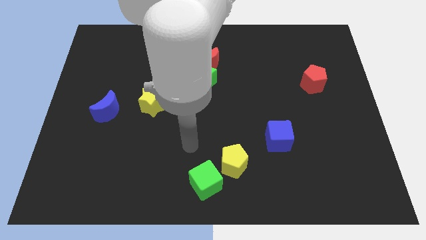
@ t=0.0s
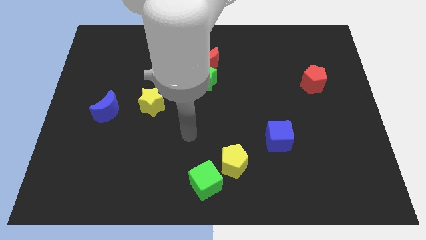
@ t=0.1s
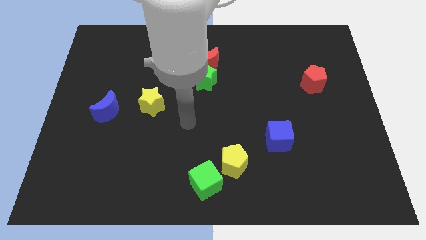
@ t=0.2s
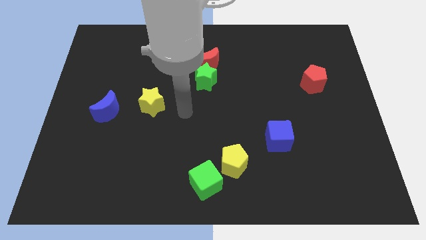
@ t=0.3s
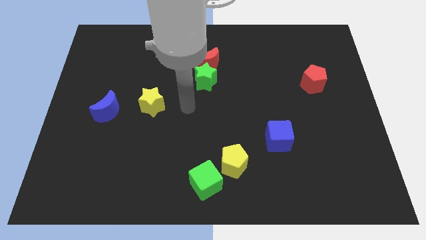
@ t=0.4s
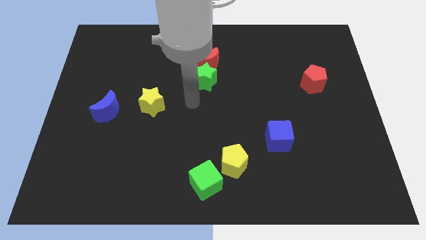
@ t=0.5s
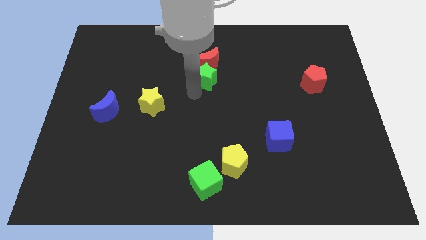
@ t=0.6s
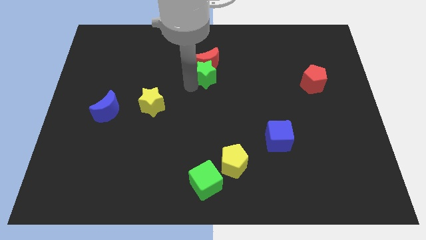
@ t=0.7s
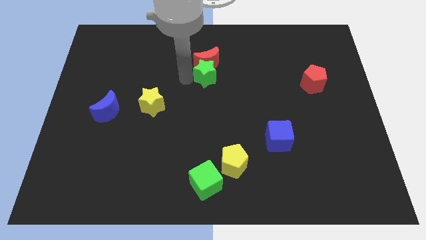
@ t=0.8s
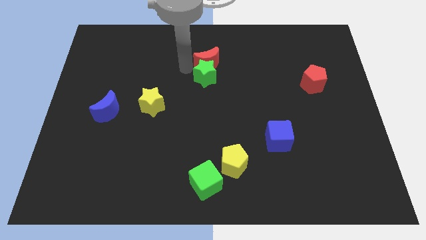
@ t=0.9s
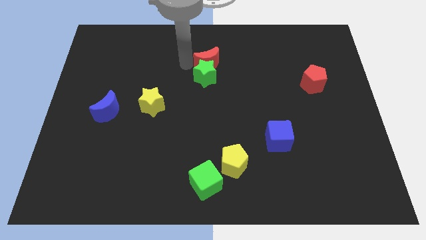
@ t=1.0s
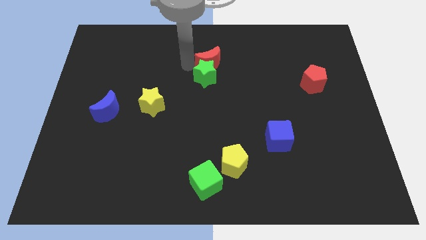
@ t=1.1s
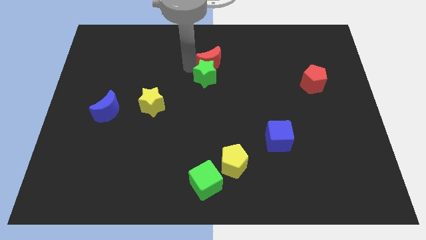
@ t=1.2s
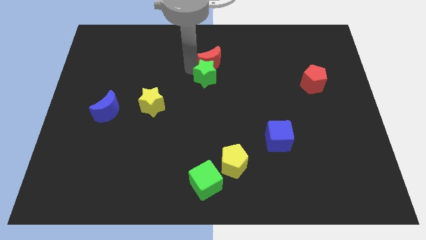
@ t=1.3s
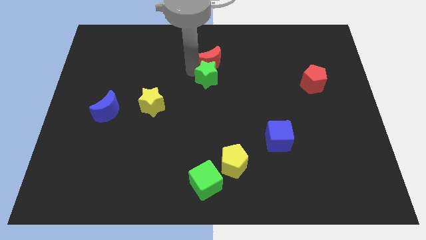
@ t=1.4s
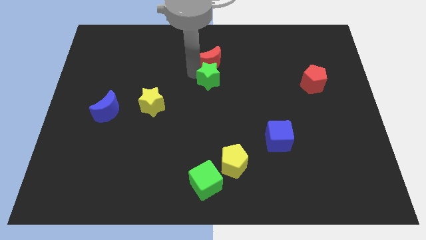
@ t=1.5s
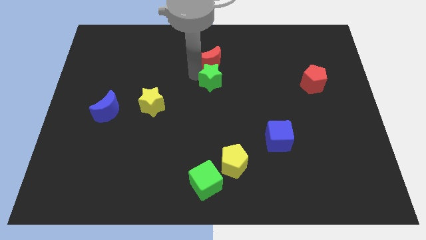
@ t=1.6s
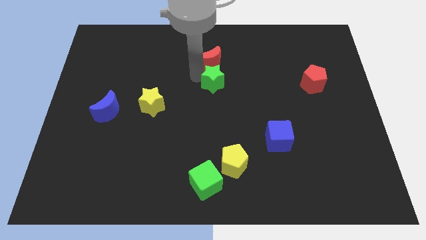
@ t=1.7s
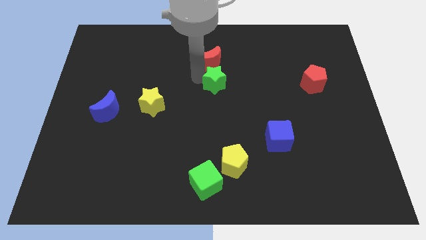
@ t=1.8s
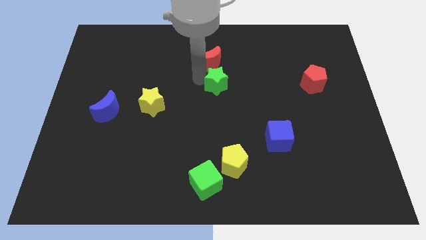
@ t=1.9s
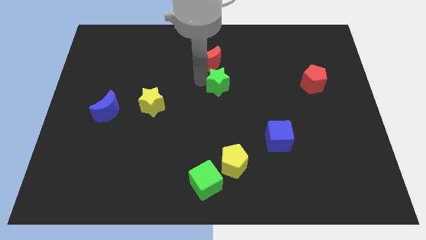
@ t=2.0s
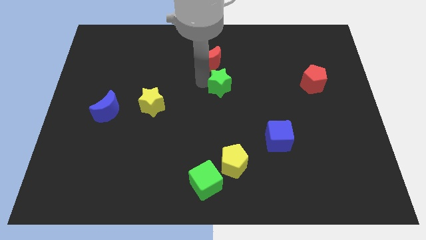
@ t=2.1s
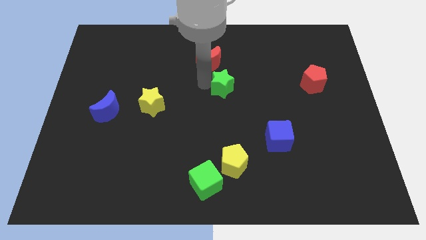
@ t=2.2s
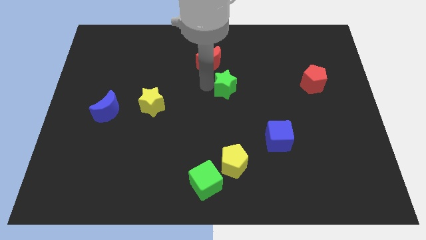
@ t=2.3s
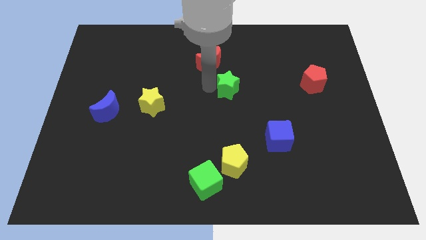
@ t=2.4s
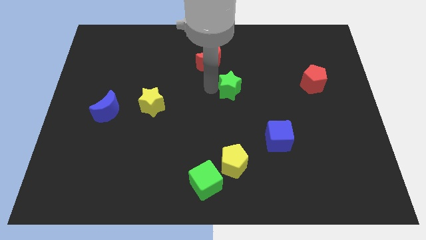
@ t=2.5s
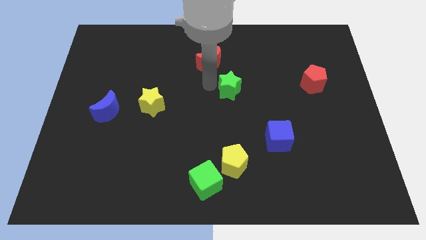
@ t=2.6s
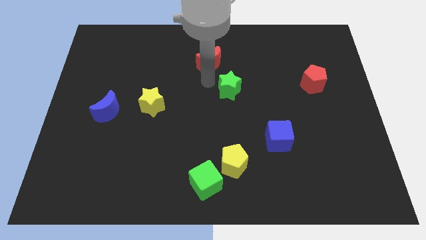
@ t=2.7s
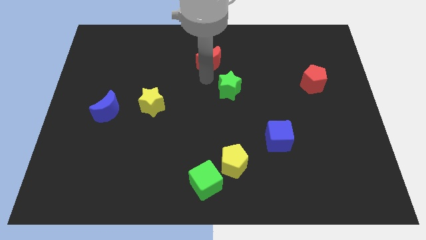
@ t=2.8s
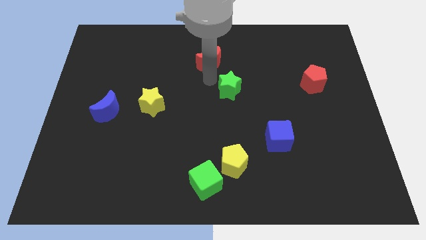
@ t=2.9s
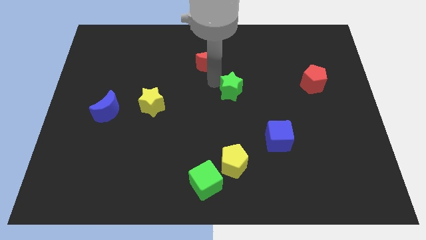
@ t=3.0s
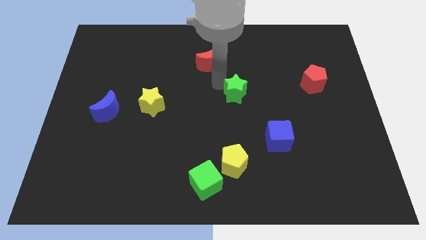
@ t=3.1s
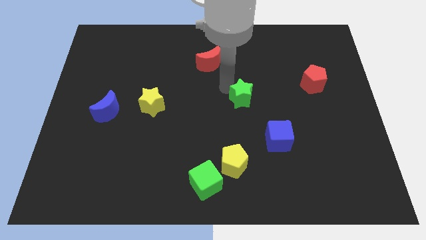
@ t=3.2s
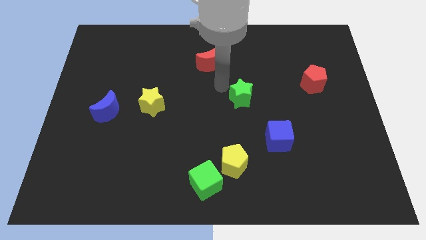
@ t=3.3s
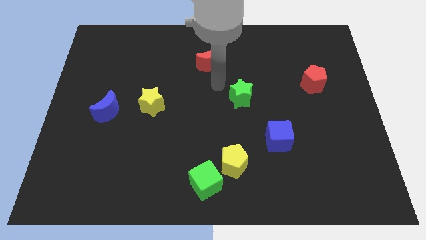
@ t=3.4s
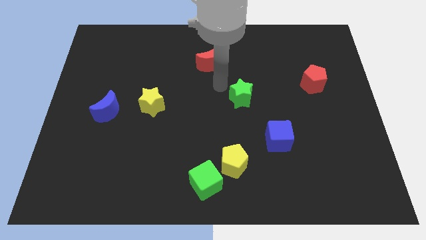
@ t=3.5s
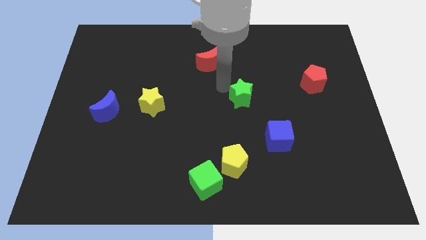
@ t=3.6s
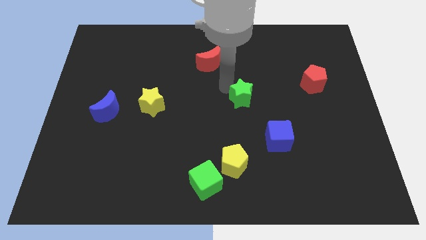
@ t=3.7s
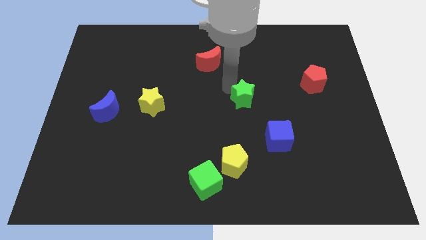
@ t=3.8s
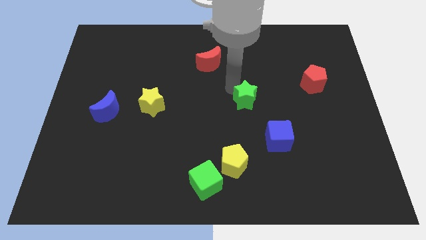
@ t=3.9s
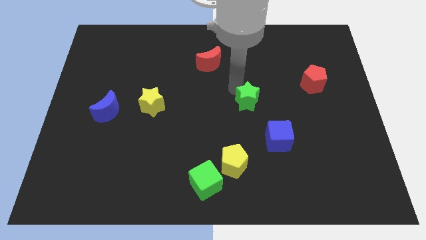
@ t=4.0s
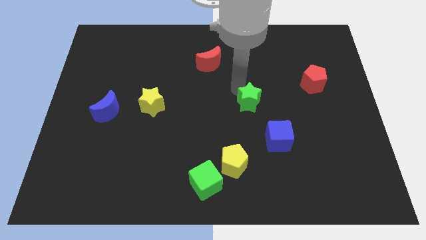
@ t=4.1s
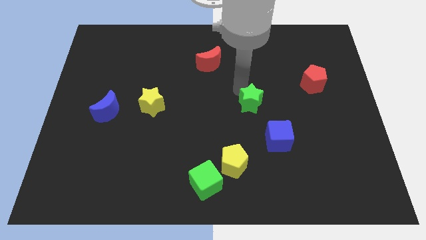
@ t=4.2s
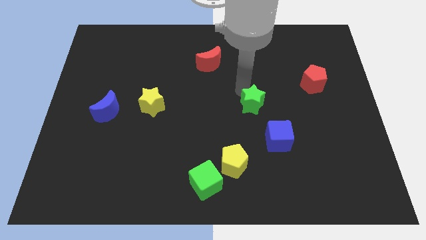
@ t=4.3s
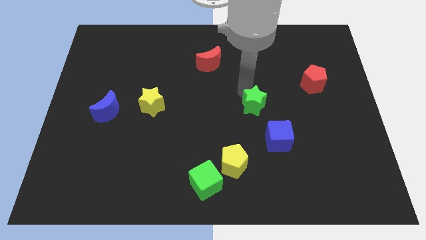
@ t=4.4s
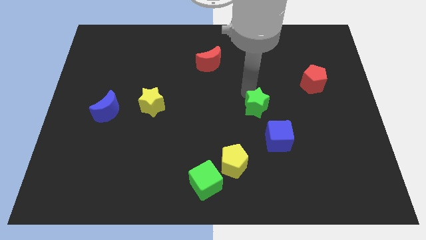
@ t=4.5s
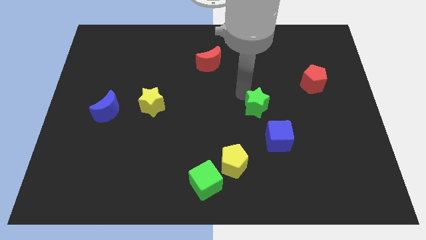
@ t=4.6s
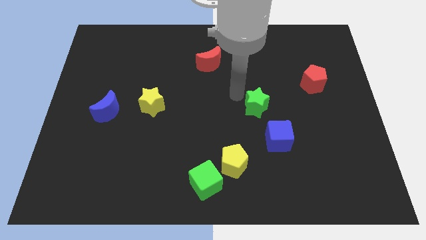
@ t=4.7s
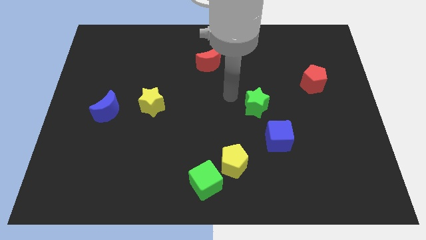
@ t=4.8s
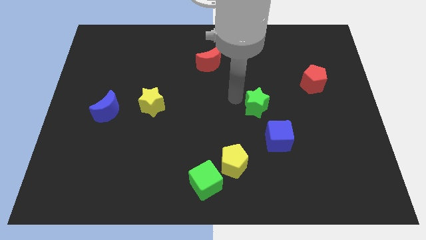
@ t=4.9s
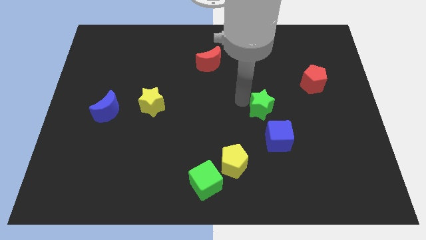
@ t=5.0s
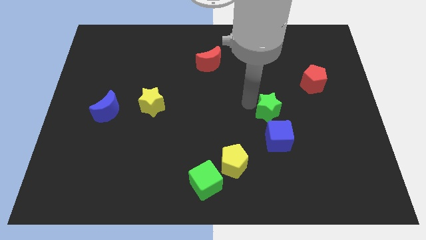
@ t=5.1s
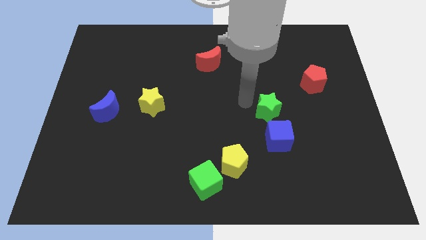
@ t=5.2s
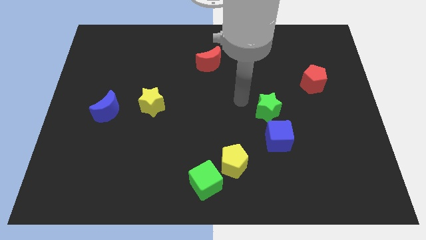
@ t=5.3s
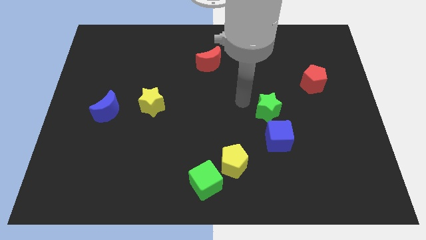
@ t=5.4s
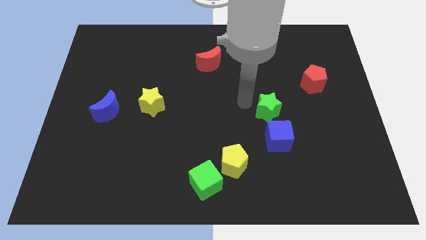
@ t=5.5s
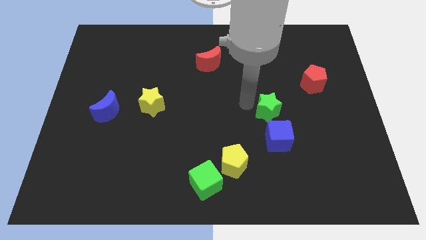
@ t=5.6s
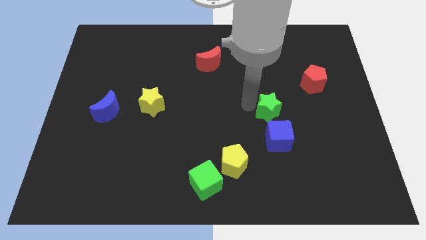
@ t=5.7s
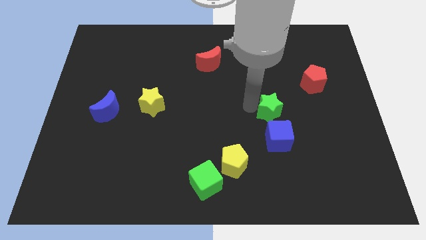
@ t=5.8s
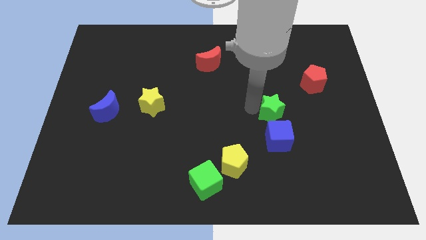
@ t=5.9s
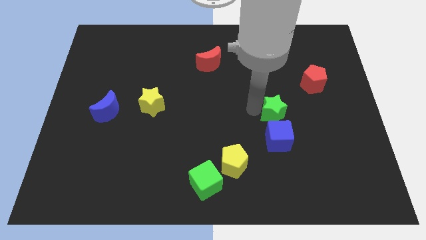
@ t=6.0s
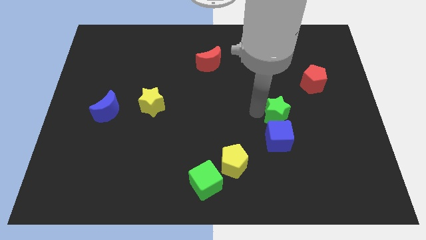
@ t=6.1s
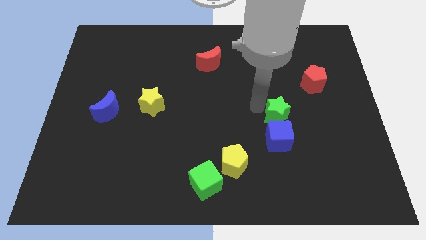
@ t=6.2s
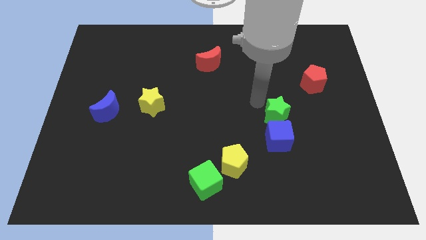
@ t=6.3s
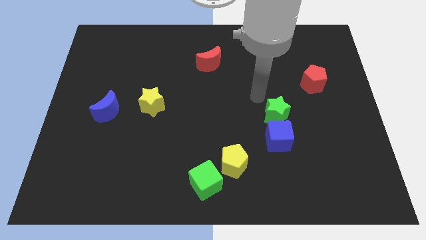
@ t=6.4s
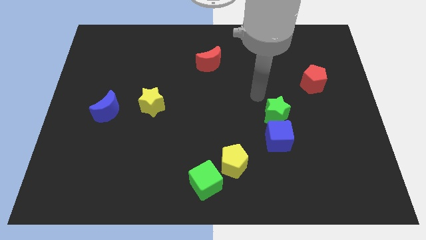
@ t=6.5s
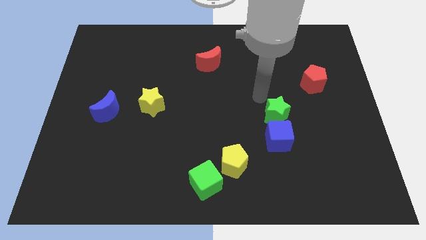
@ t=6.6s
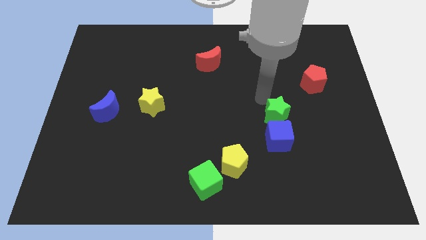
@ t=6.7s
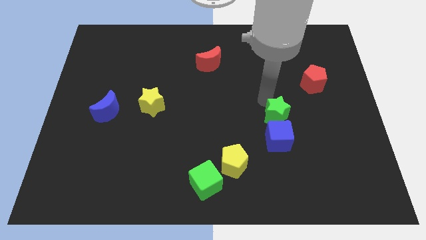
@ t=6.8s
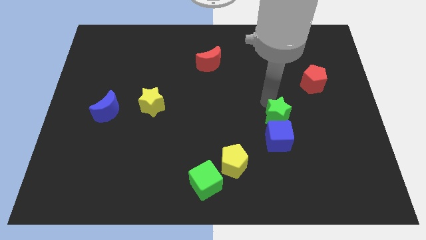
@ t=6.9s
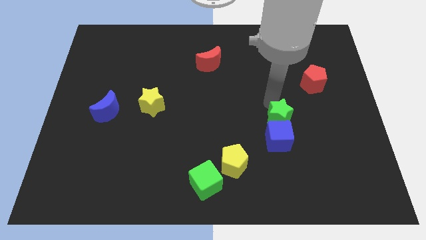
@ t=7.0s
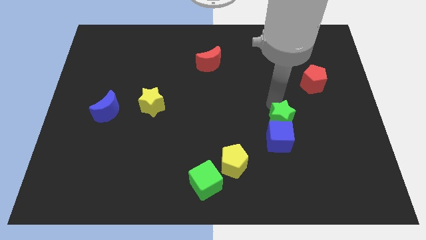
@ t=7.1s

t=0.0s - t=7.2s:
slide the green star diagonally down and to the right

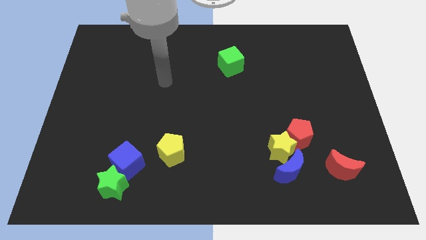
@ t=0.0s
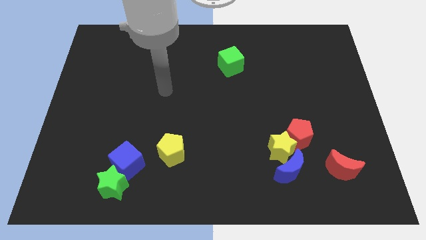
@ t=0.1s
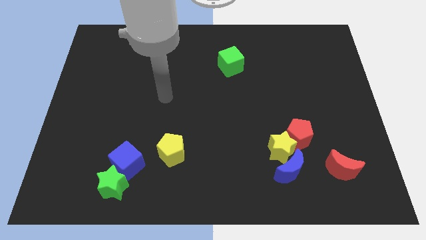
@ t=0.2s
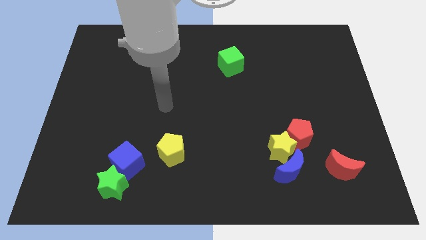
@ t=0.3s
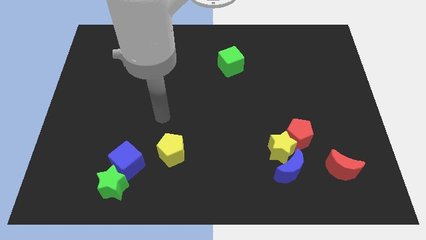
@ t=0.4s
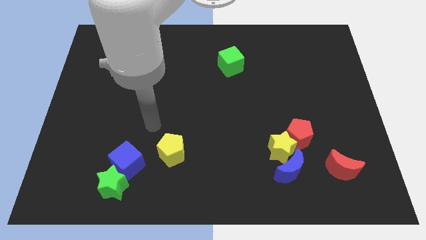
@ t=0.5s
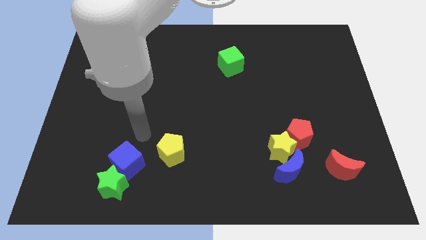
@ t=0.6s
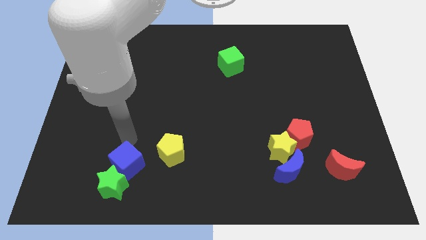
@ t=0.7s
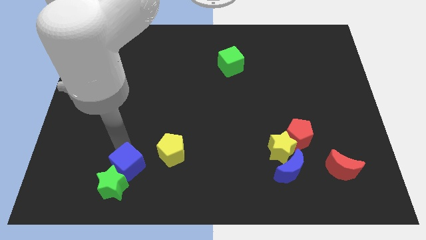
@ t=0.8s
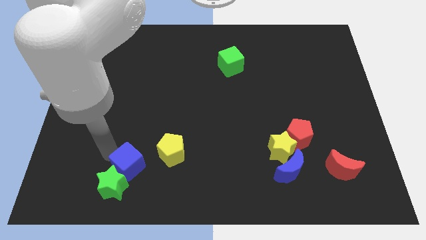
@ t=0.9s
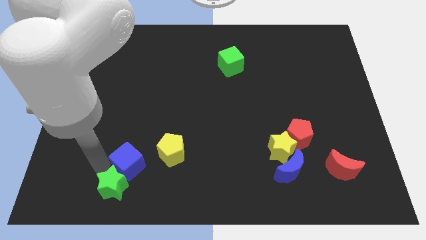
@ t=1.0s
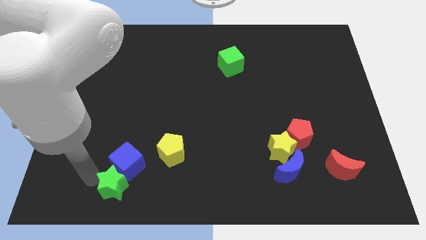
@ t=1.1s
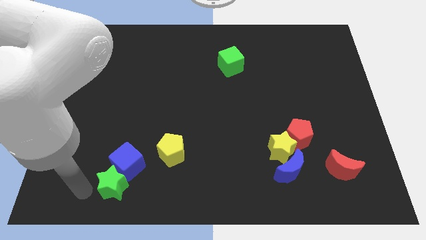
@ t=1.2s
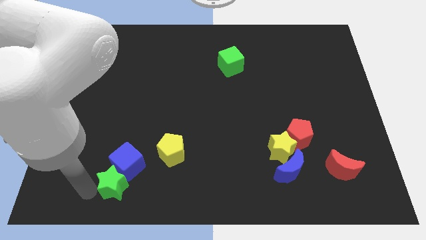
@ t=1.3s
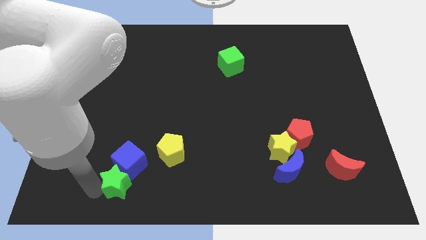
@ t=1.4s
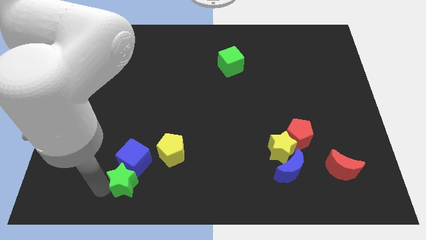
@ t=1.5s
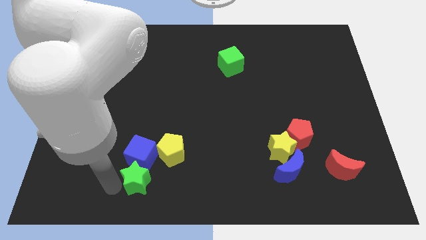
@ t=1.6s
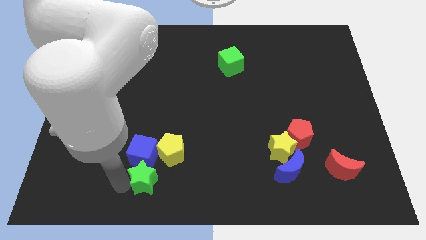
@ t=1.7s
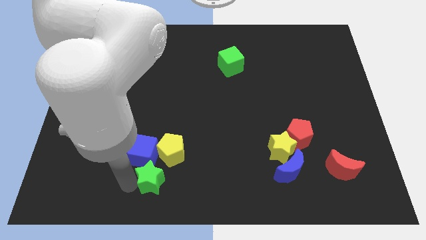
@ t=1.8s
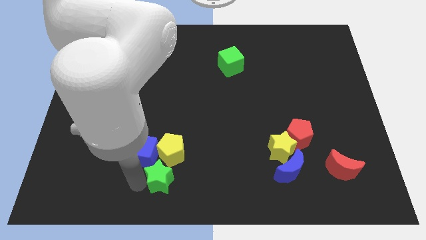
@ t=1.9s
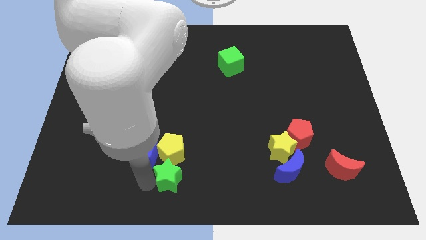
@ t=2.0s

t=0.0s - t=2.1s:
slide the green star diagonally upwards and to the right a bit
